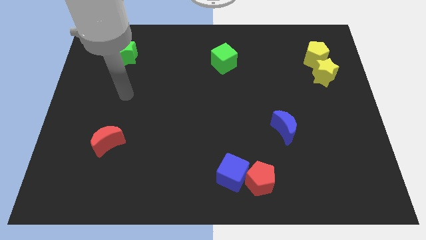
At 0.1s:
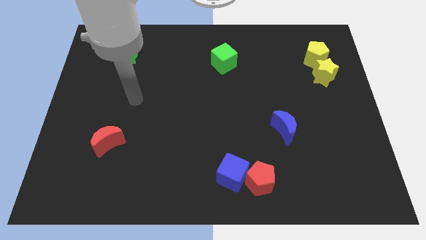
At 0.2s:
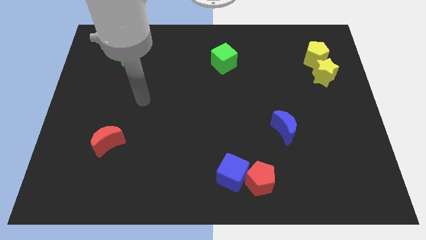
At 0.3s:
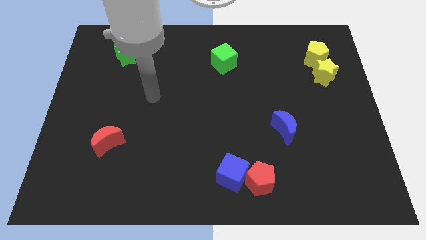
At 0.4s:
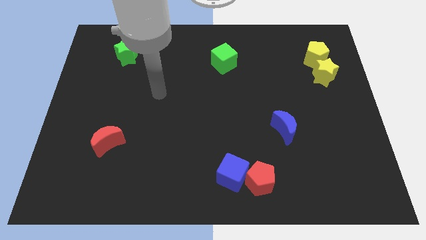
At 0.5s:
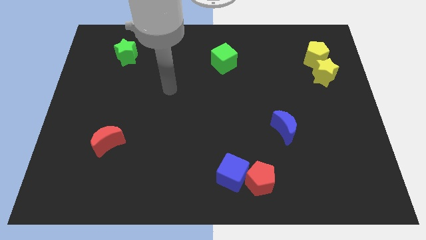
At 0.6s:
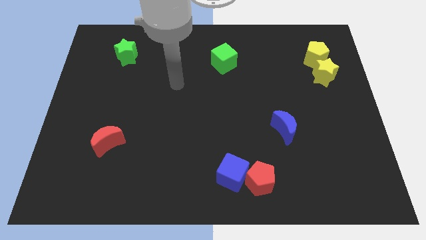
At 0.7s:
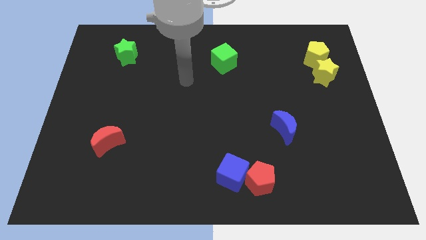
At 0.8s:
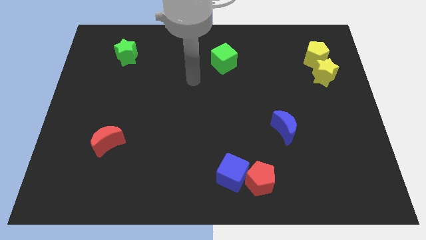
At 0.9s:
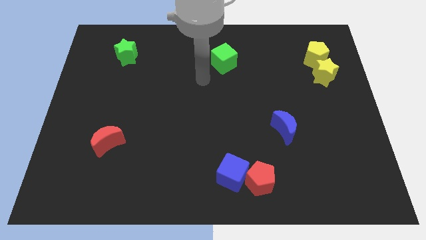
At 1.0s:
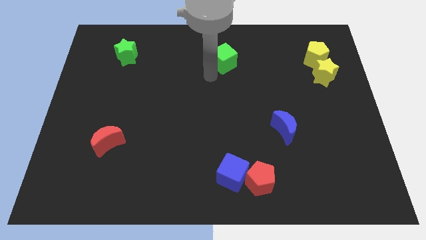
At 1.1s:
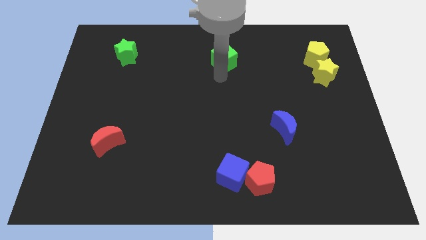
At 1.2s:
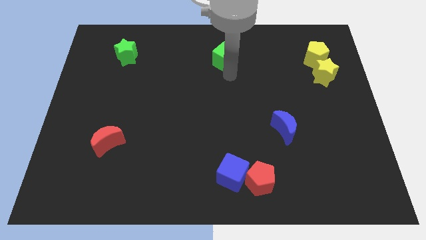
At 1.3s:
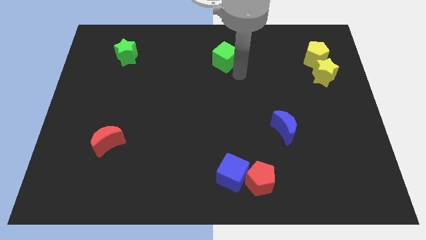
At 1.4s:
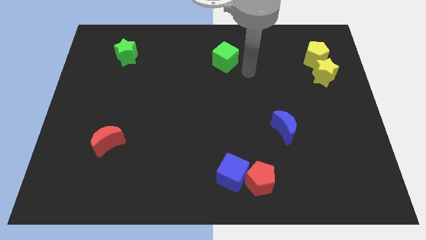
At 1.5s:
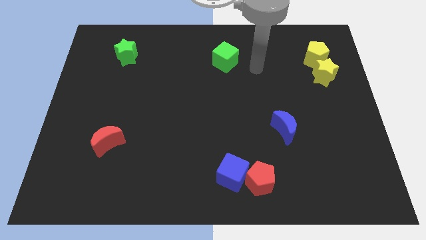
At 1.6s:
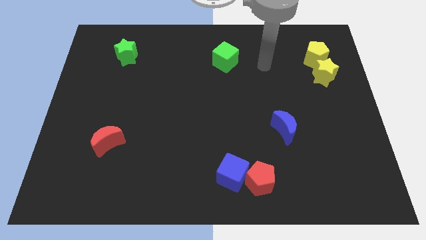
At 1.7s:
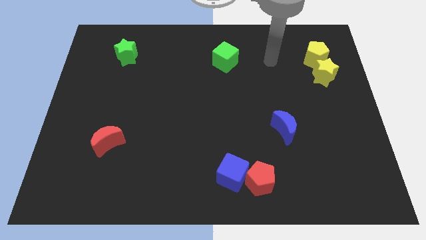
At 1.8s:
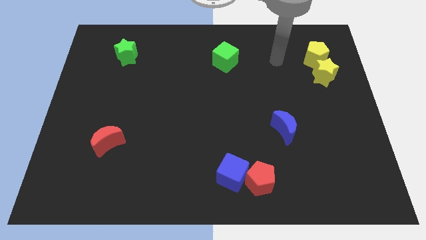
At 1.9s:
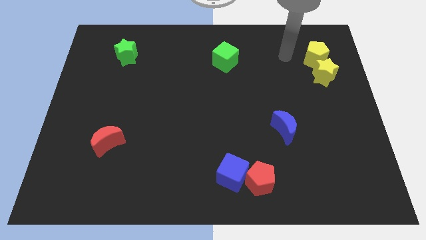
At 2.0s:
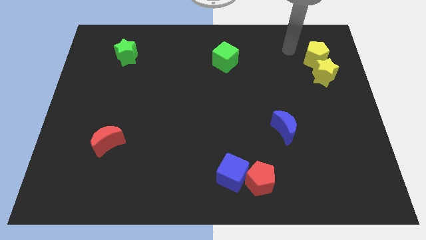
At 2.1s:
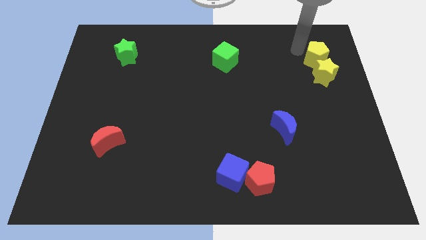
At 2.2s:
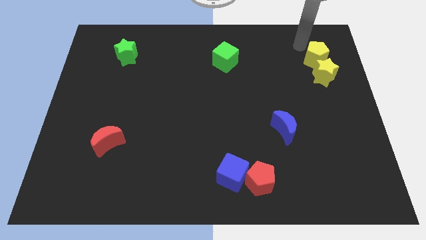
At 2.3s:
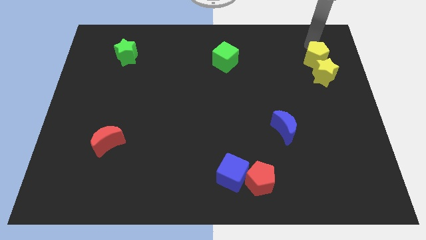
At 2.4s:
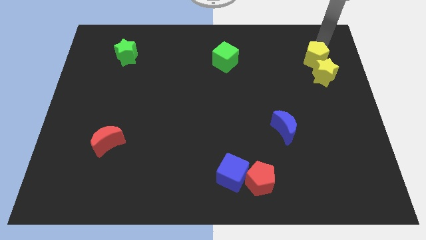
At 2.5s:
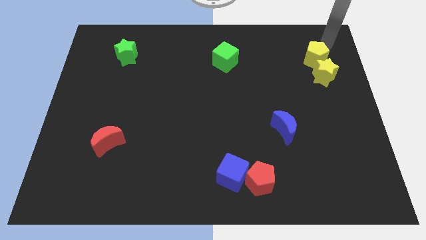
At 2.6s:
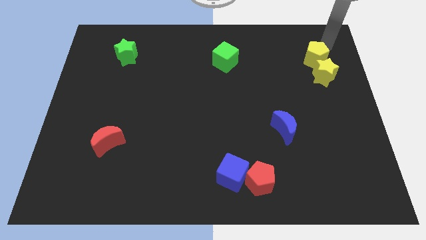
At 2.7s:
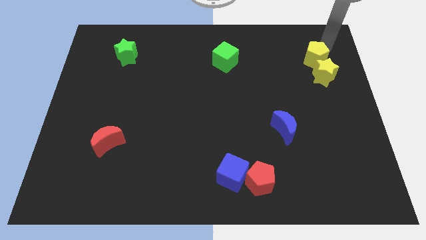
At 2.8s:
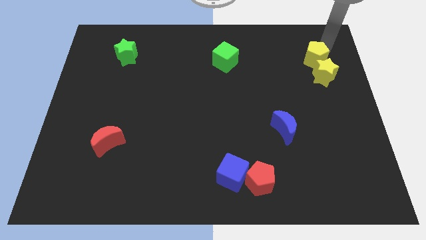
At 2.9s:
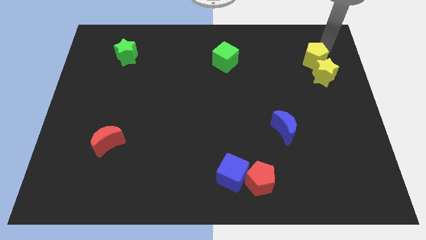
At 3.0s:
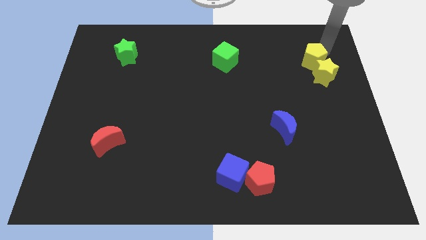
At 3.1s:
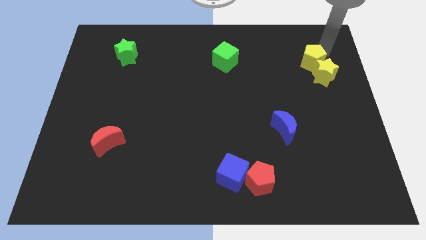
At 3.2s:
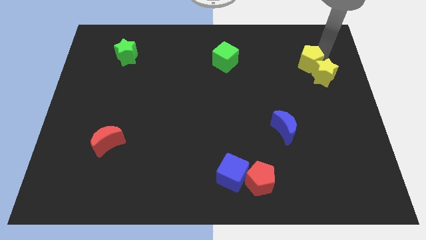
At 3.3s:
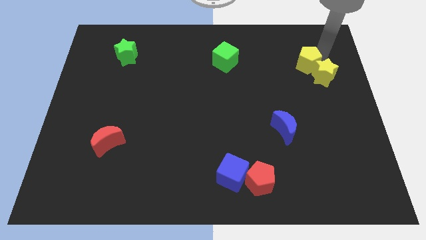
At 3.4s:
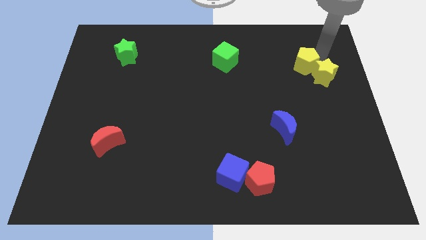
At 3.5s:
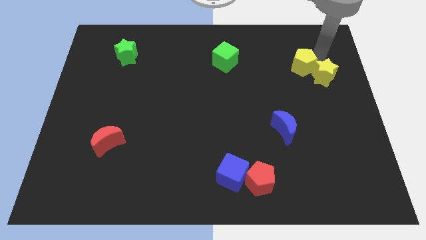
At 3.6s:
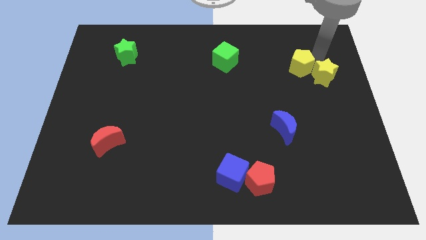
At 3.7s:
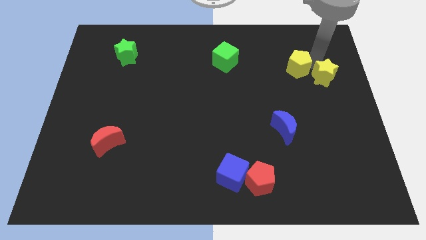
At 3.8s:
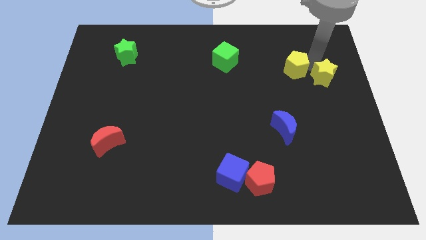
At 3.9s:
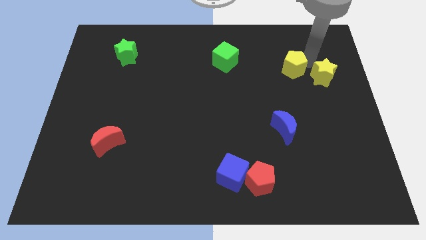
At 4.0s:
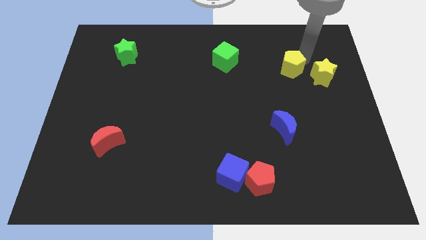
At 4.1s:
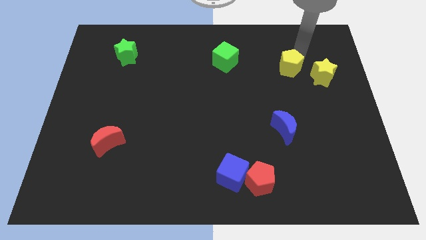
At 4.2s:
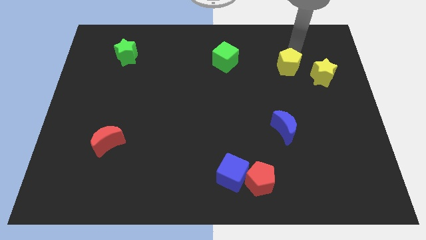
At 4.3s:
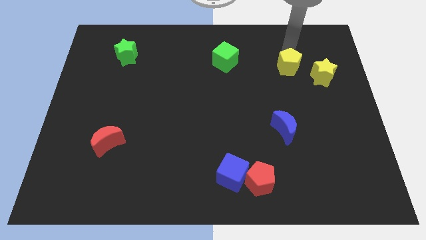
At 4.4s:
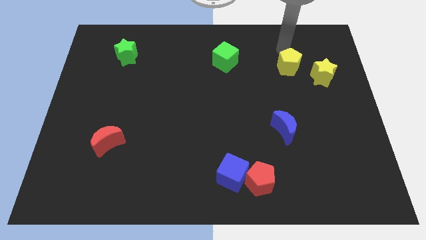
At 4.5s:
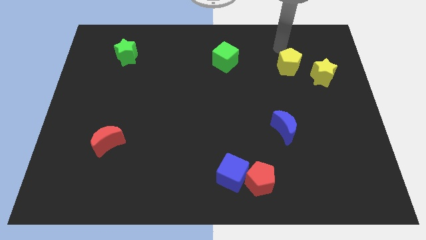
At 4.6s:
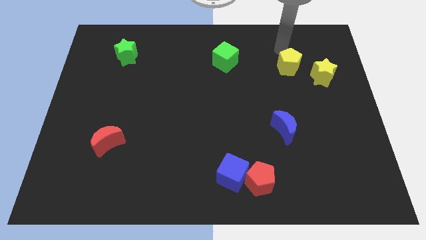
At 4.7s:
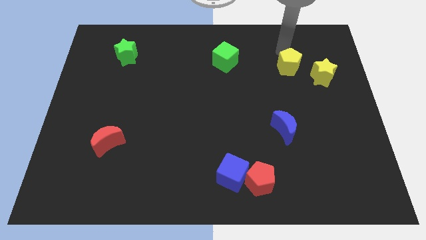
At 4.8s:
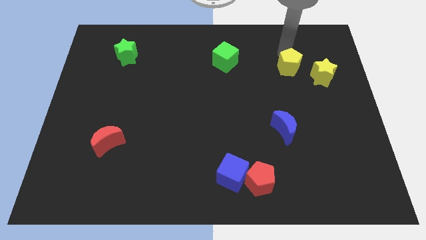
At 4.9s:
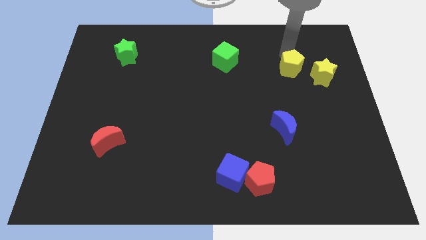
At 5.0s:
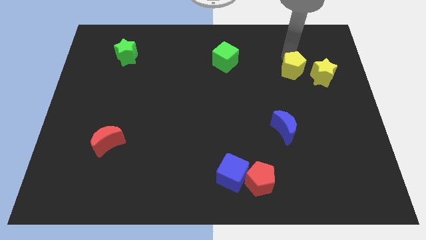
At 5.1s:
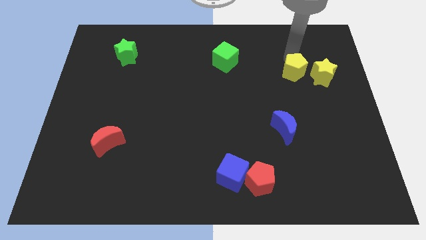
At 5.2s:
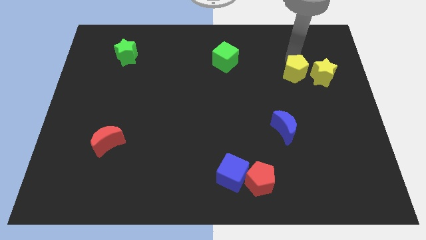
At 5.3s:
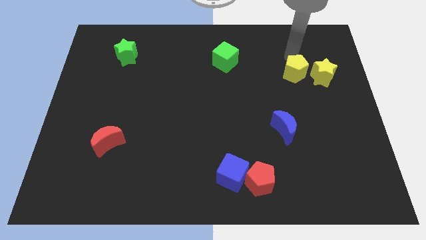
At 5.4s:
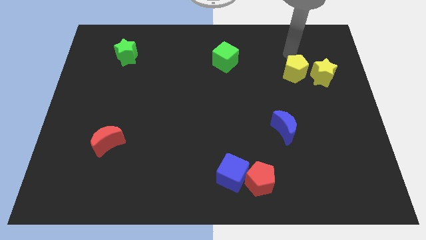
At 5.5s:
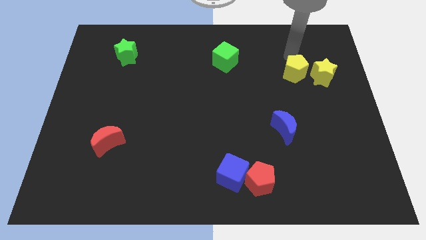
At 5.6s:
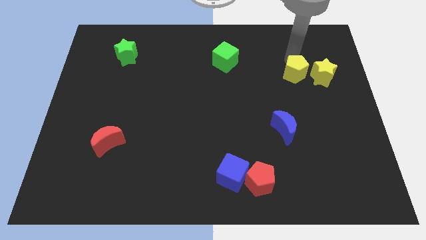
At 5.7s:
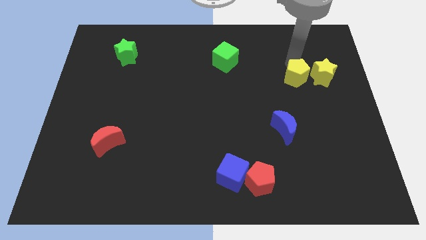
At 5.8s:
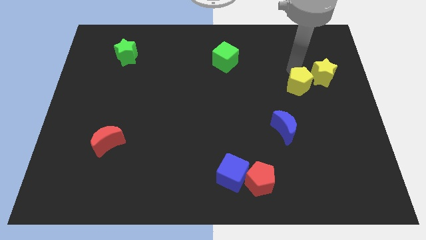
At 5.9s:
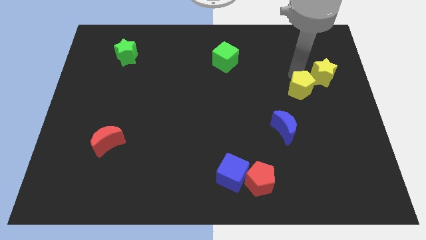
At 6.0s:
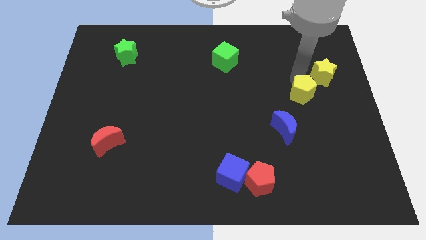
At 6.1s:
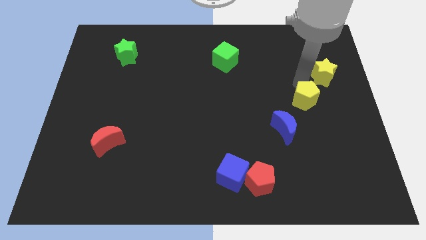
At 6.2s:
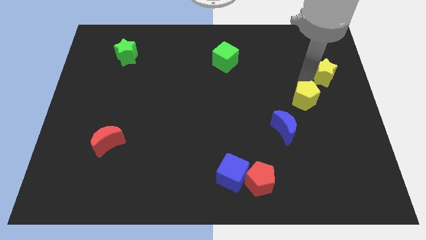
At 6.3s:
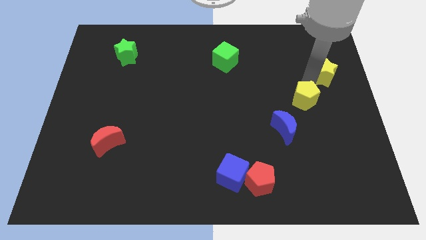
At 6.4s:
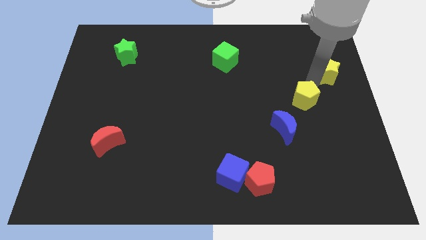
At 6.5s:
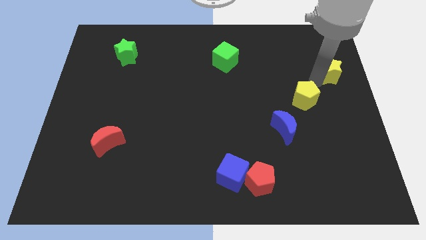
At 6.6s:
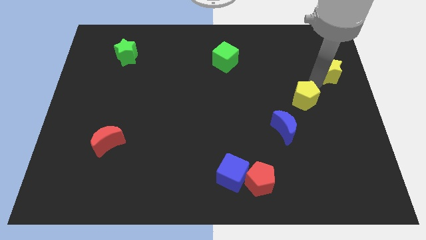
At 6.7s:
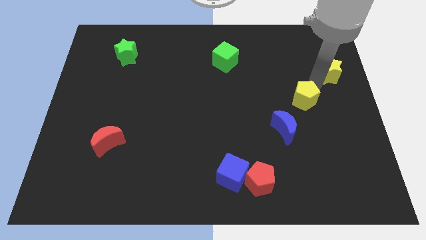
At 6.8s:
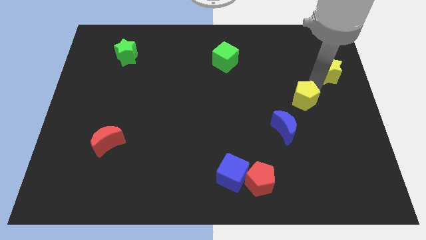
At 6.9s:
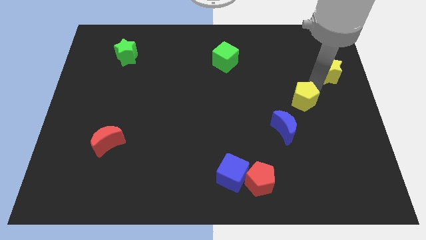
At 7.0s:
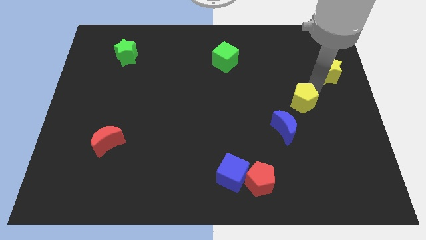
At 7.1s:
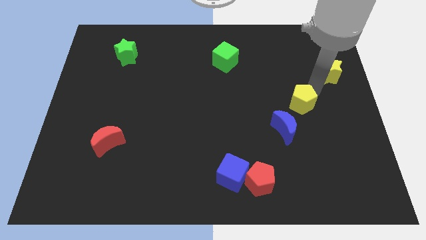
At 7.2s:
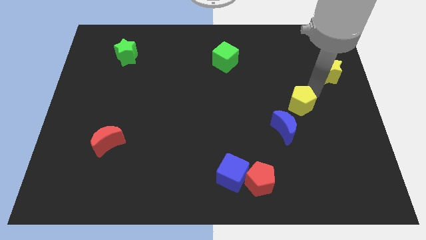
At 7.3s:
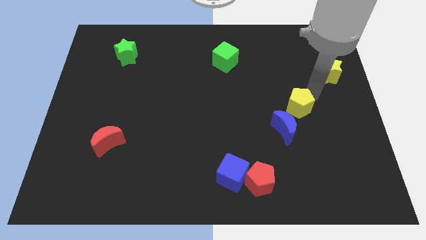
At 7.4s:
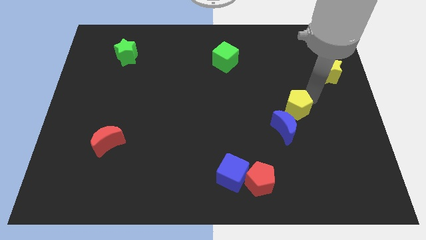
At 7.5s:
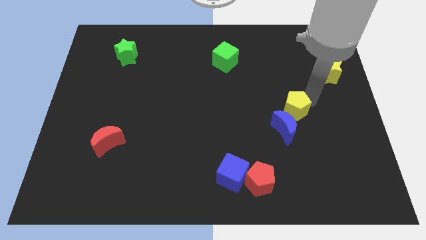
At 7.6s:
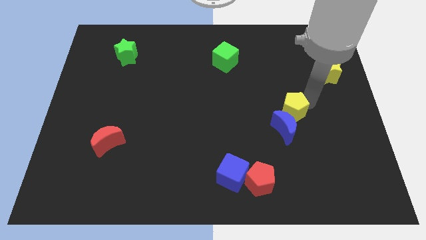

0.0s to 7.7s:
move the yellow pentagon to the blue moon
